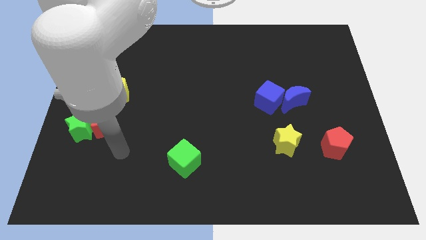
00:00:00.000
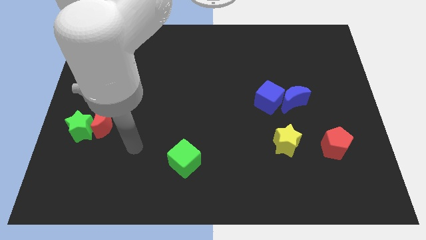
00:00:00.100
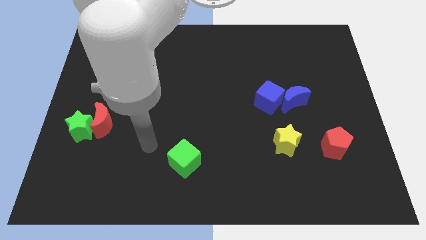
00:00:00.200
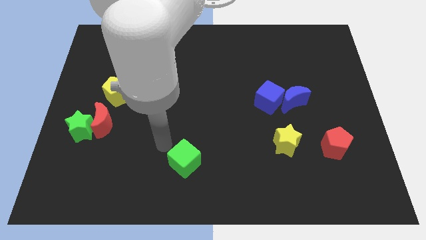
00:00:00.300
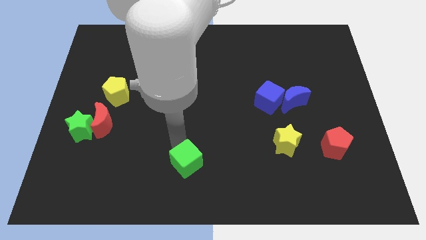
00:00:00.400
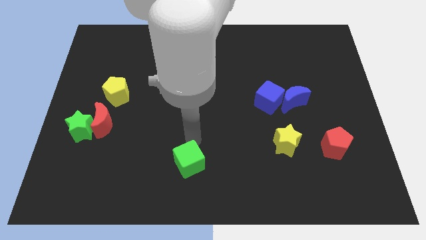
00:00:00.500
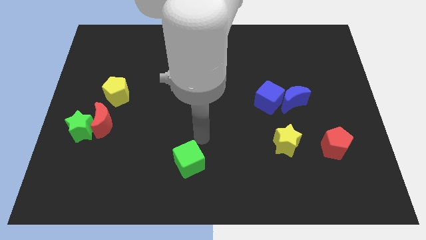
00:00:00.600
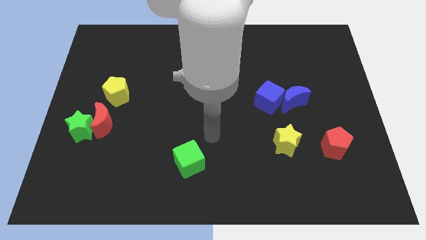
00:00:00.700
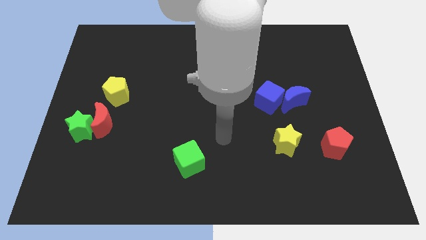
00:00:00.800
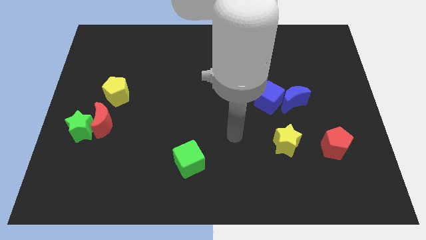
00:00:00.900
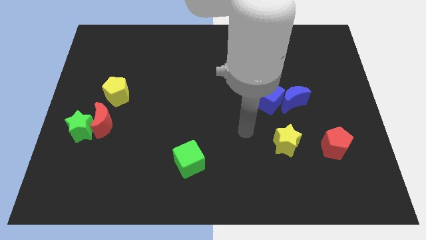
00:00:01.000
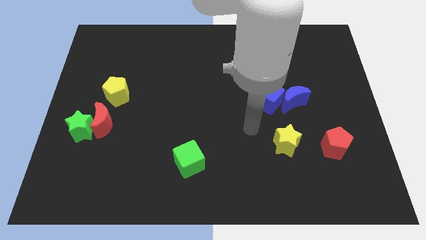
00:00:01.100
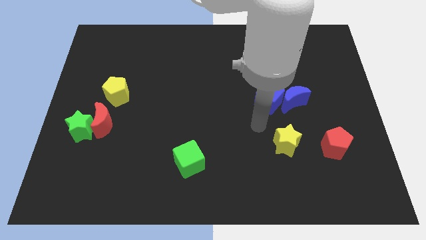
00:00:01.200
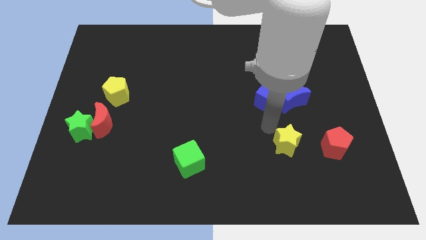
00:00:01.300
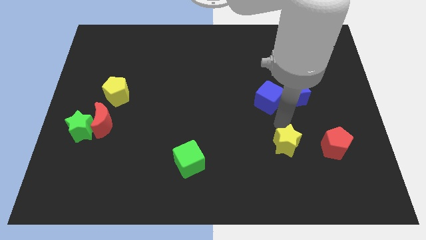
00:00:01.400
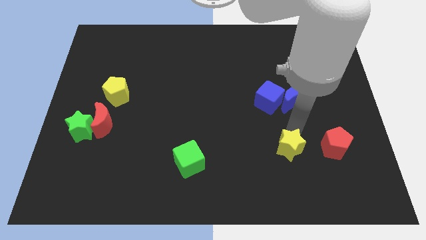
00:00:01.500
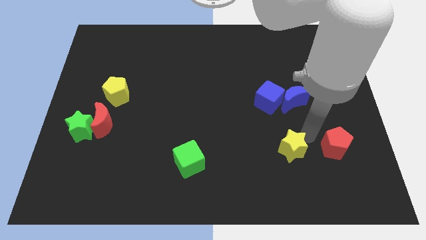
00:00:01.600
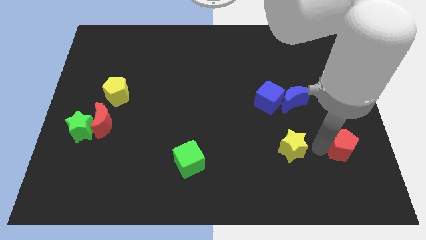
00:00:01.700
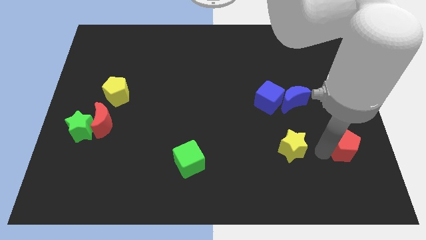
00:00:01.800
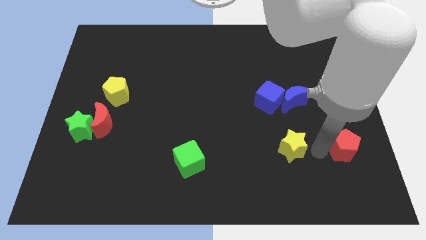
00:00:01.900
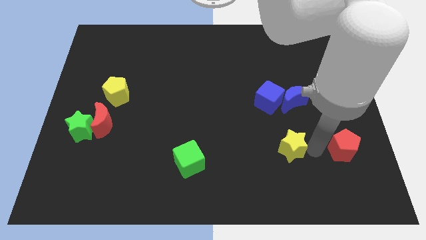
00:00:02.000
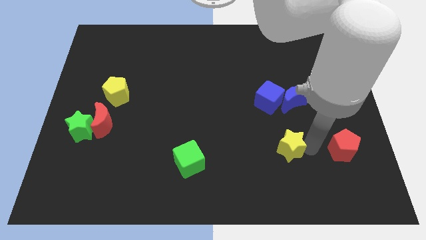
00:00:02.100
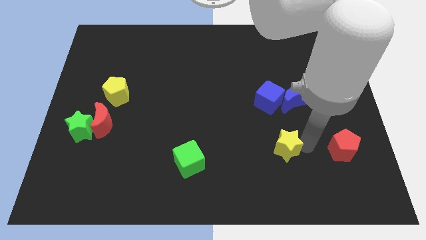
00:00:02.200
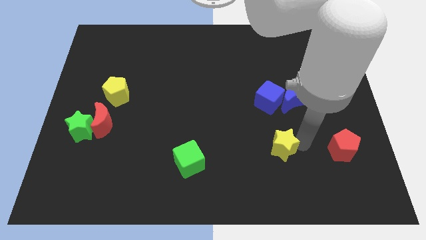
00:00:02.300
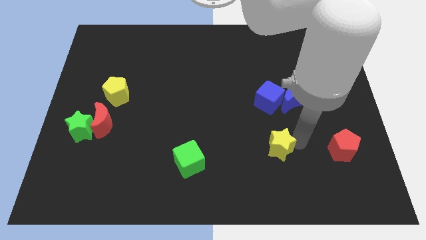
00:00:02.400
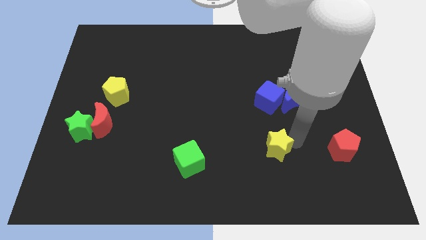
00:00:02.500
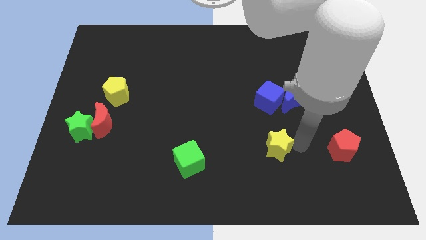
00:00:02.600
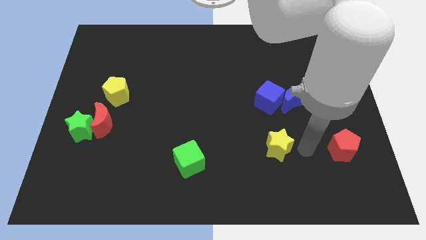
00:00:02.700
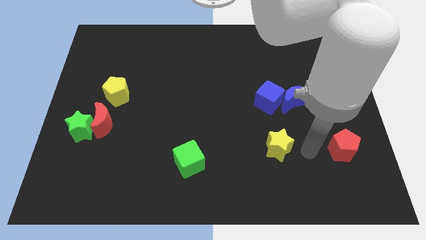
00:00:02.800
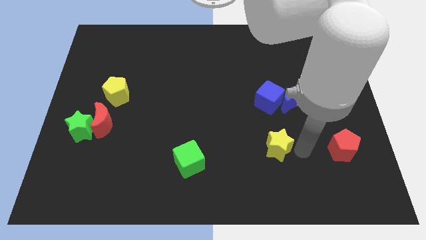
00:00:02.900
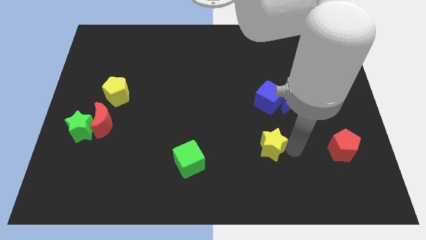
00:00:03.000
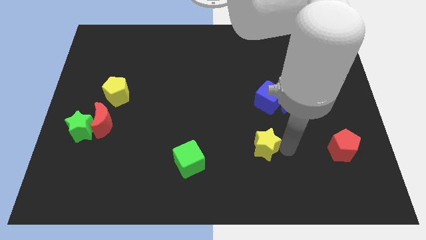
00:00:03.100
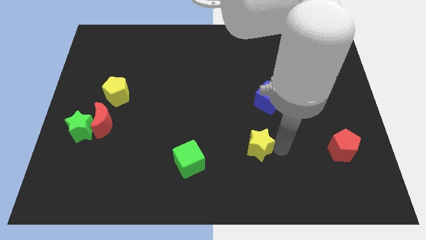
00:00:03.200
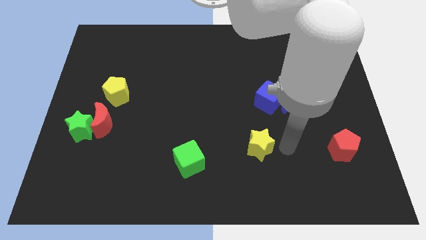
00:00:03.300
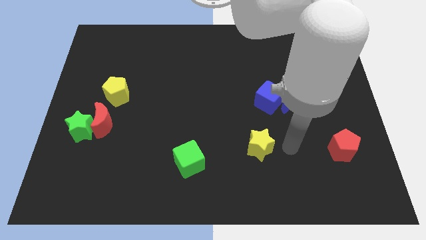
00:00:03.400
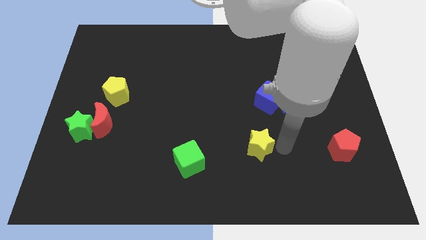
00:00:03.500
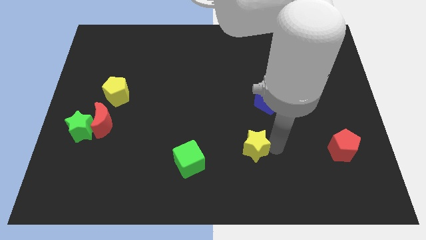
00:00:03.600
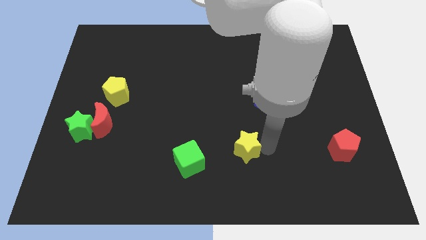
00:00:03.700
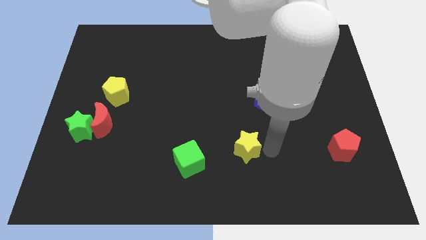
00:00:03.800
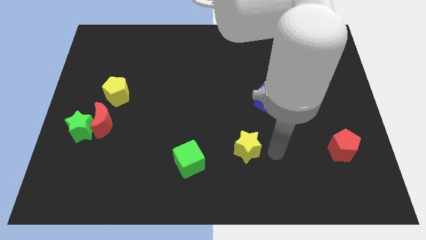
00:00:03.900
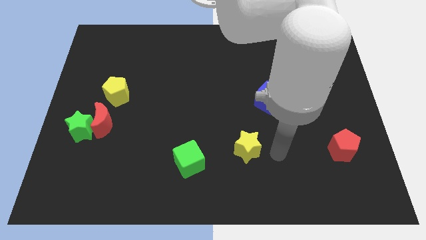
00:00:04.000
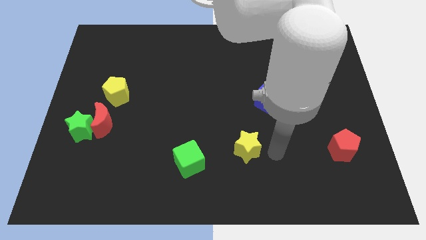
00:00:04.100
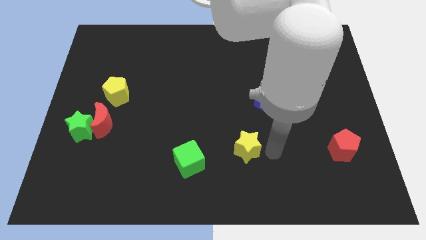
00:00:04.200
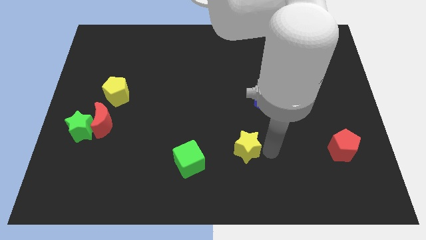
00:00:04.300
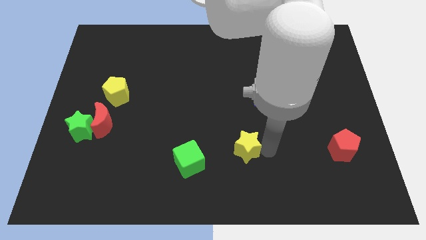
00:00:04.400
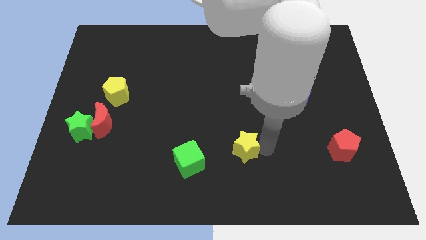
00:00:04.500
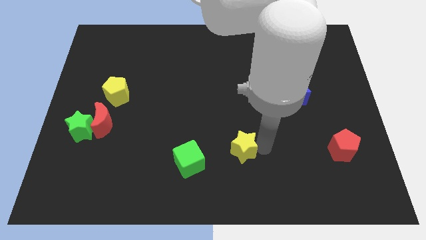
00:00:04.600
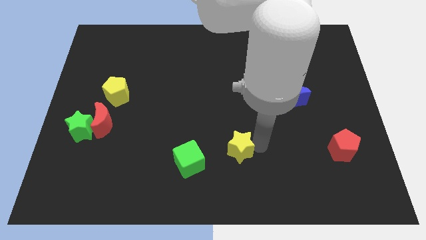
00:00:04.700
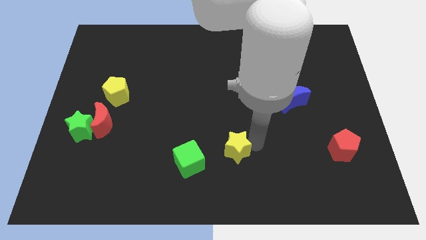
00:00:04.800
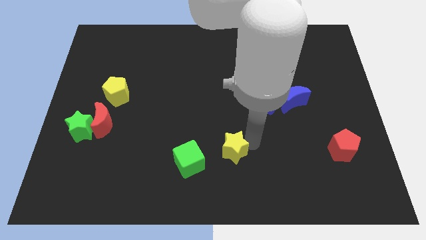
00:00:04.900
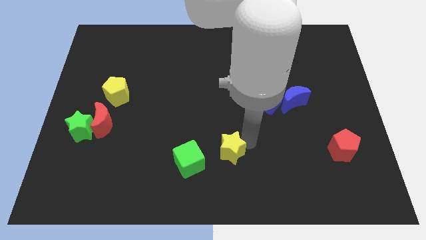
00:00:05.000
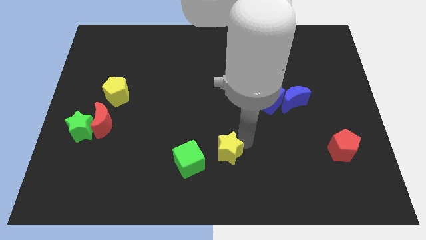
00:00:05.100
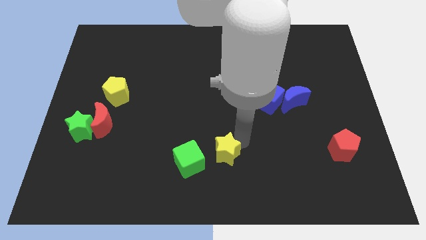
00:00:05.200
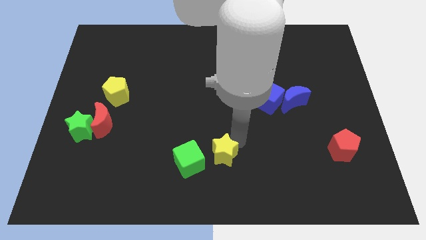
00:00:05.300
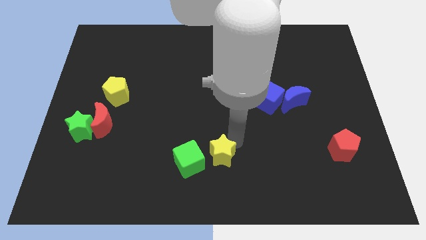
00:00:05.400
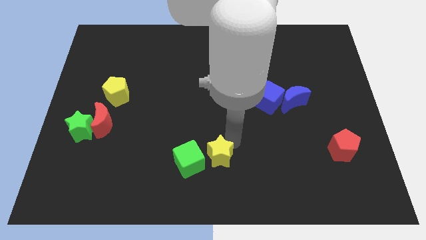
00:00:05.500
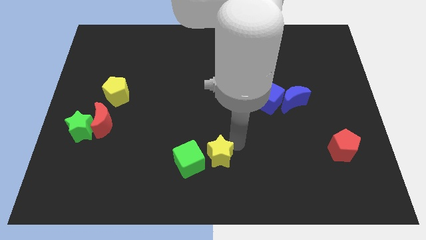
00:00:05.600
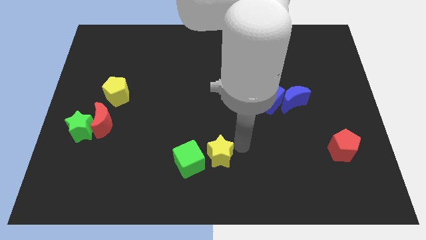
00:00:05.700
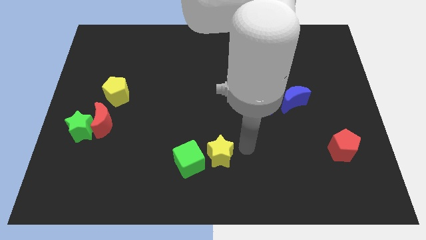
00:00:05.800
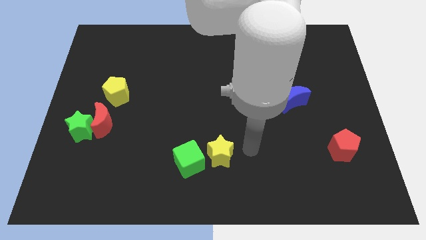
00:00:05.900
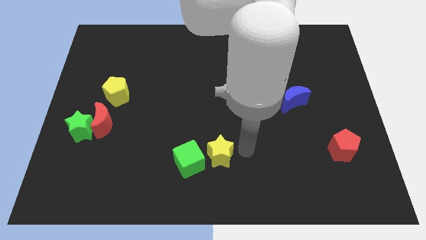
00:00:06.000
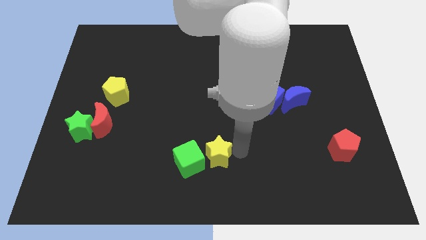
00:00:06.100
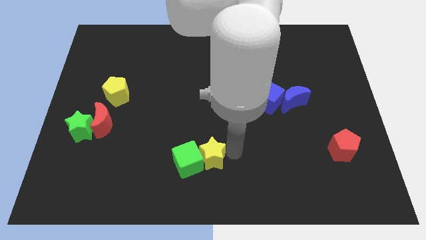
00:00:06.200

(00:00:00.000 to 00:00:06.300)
slide the yellow star close to the green cube
